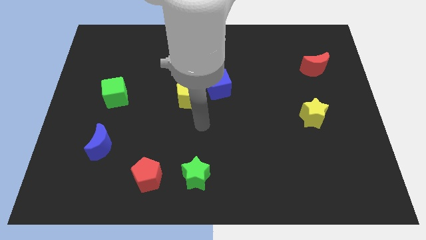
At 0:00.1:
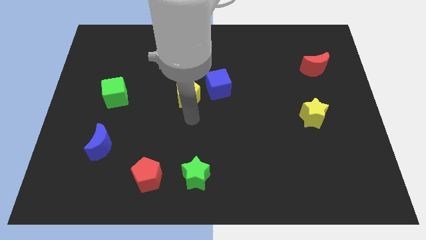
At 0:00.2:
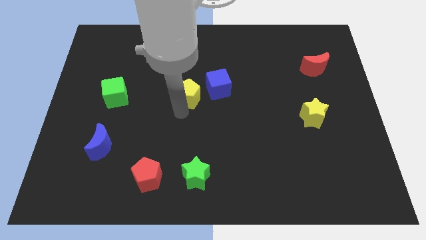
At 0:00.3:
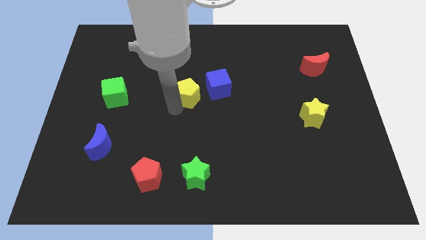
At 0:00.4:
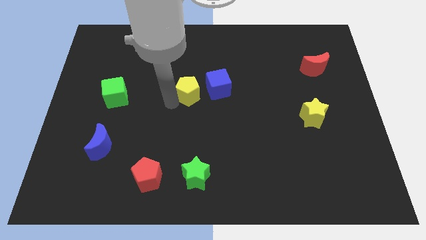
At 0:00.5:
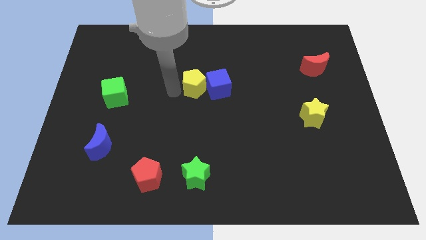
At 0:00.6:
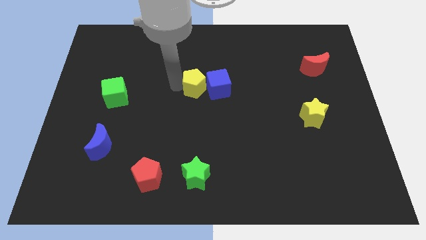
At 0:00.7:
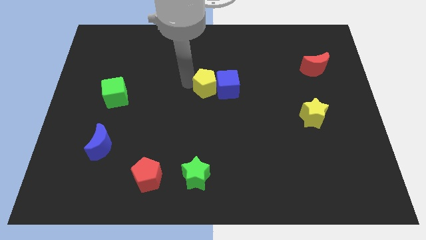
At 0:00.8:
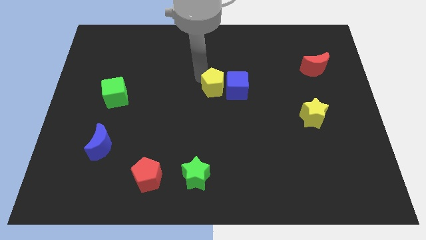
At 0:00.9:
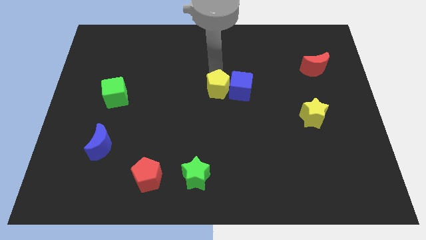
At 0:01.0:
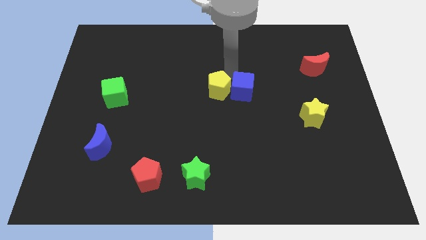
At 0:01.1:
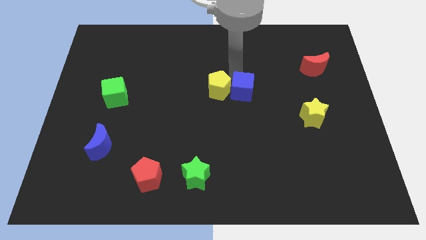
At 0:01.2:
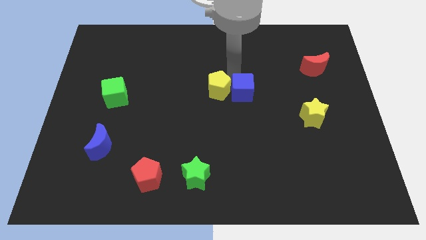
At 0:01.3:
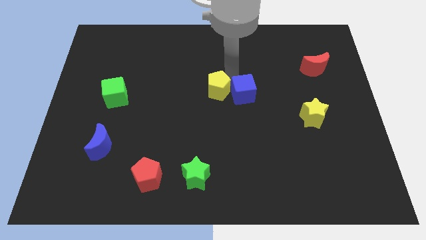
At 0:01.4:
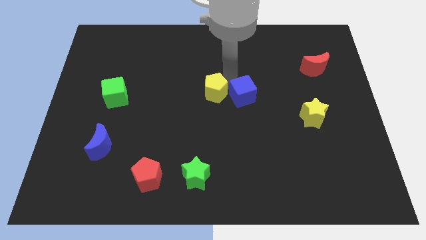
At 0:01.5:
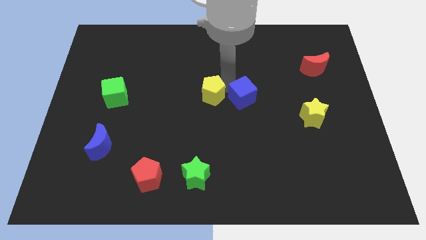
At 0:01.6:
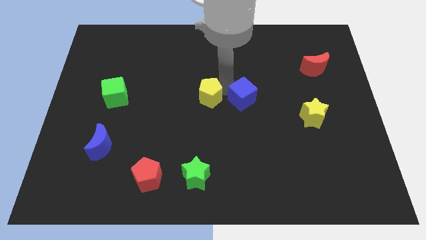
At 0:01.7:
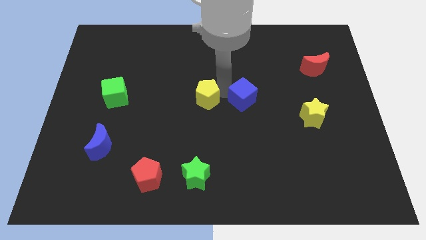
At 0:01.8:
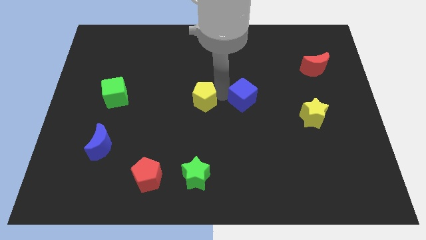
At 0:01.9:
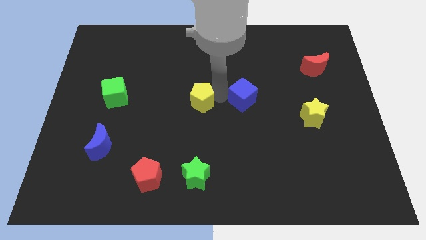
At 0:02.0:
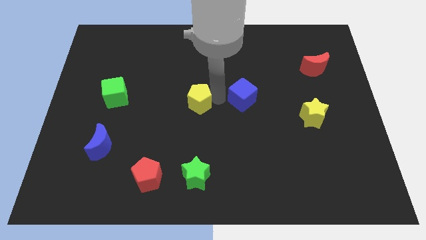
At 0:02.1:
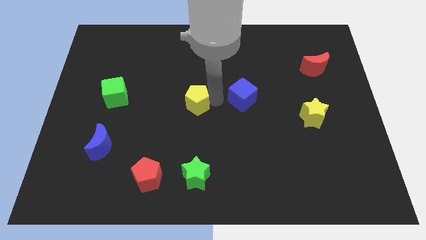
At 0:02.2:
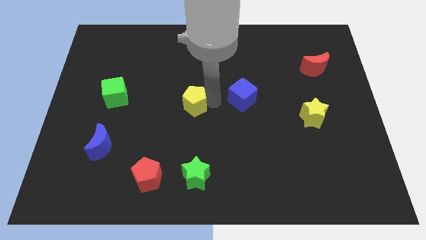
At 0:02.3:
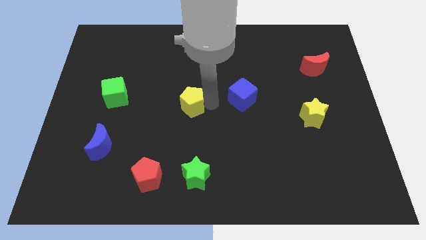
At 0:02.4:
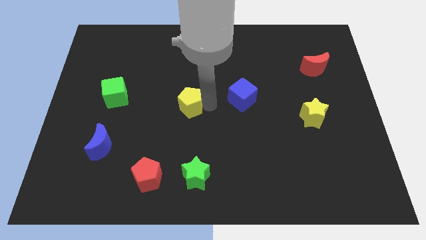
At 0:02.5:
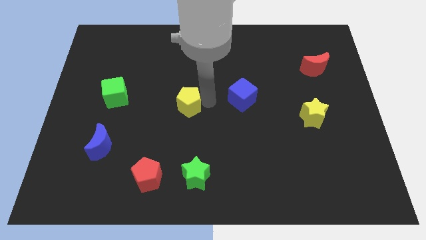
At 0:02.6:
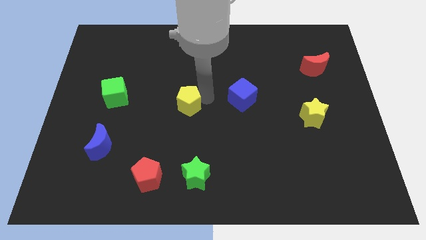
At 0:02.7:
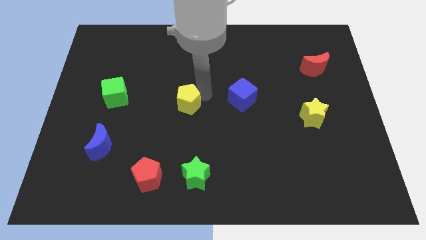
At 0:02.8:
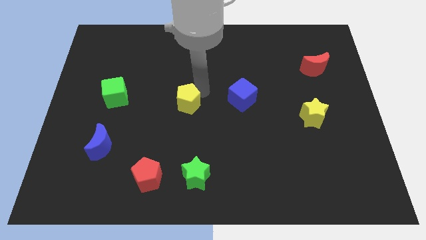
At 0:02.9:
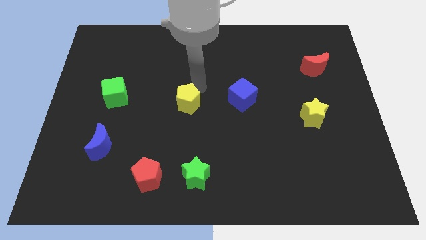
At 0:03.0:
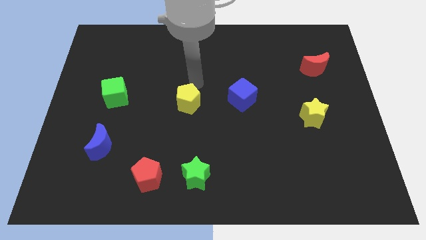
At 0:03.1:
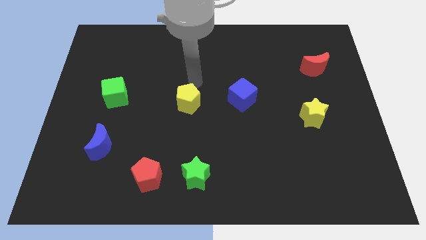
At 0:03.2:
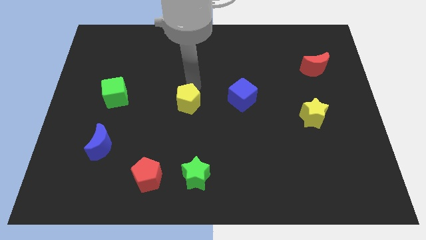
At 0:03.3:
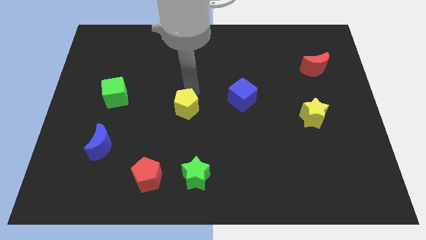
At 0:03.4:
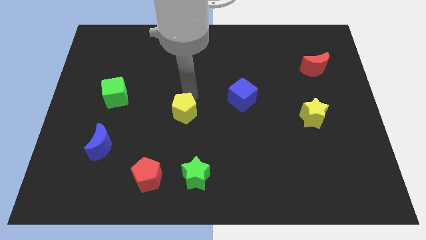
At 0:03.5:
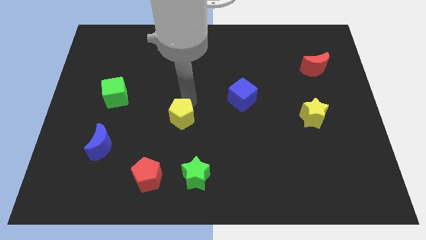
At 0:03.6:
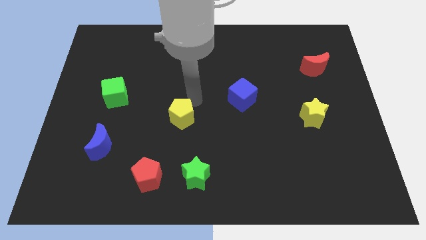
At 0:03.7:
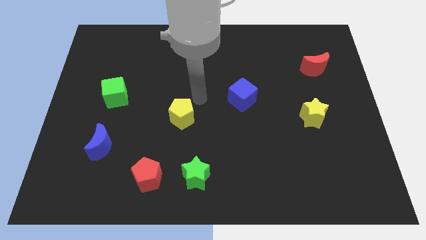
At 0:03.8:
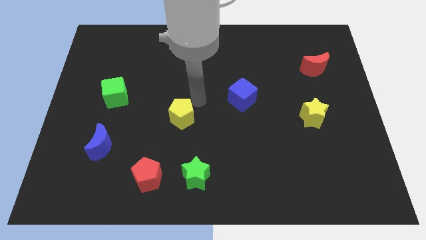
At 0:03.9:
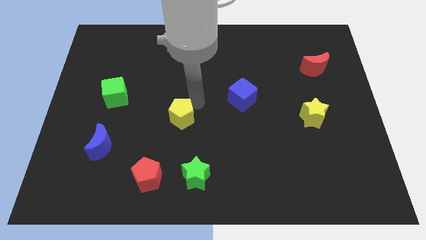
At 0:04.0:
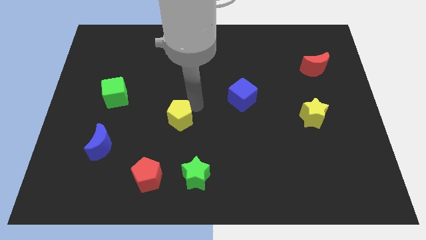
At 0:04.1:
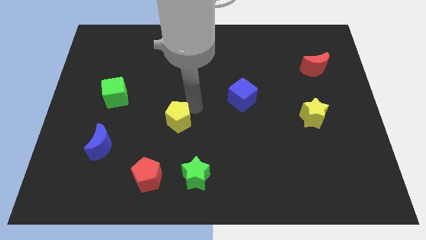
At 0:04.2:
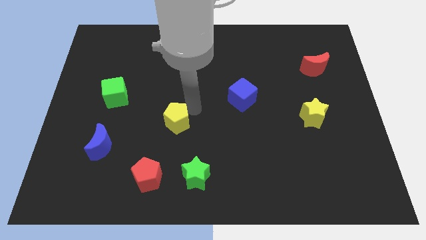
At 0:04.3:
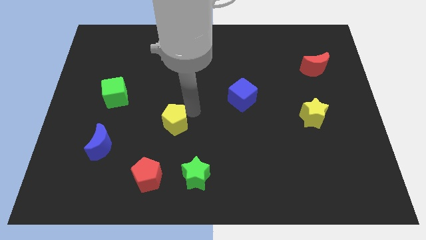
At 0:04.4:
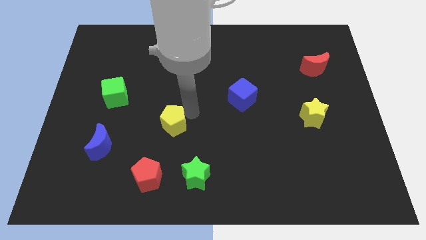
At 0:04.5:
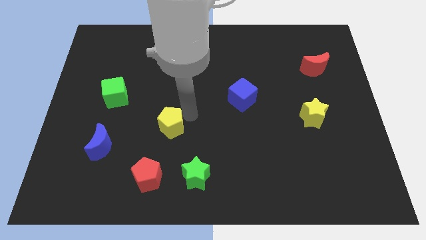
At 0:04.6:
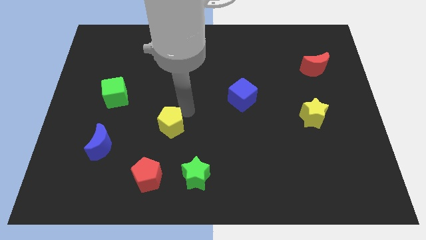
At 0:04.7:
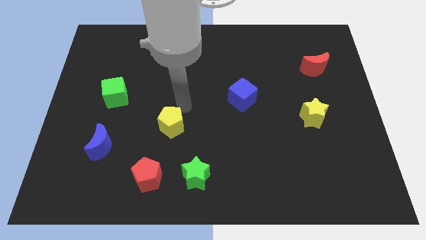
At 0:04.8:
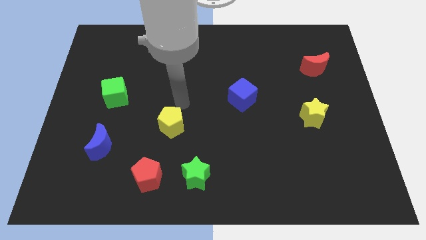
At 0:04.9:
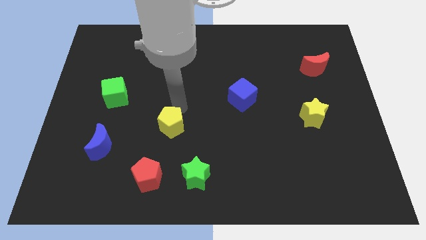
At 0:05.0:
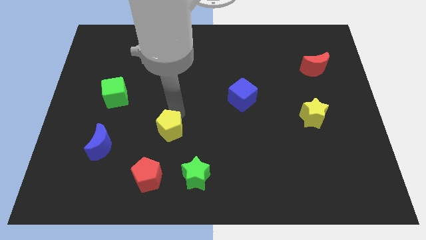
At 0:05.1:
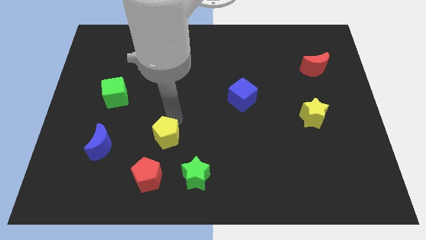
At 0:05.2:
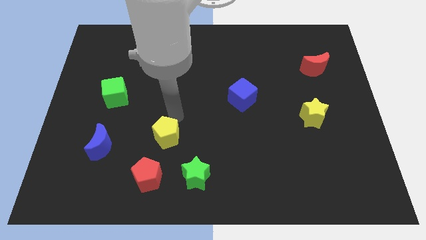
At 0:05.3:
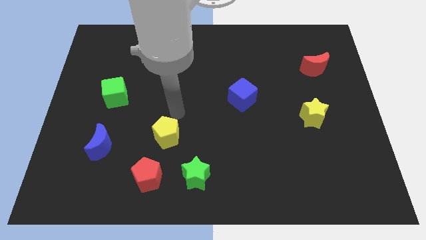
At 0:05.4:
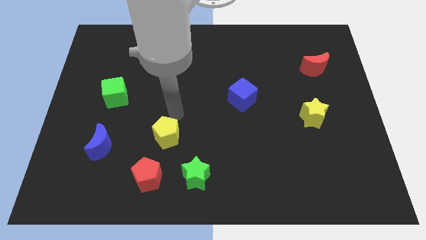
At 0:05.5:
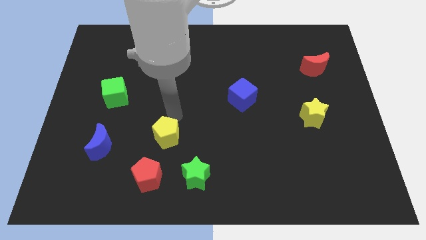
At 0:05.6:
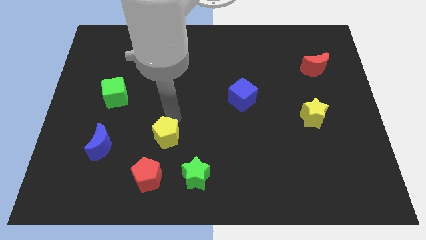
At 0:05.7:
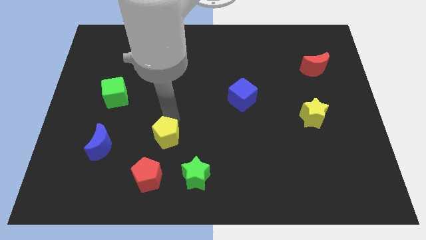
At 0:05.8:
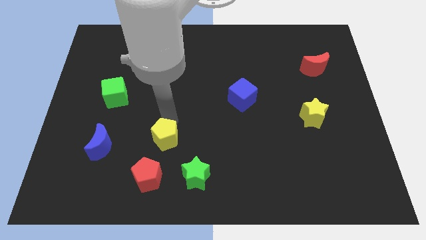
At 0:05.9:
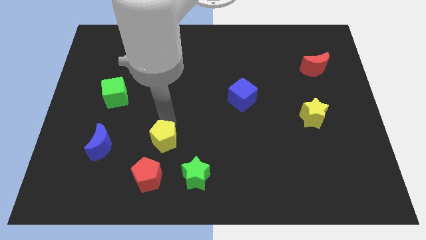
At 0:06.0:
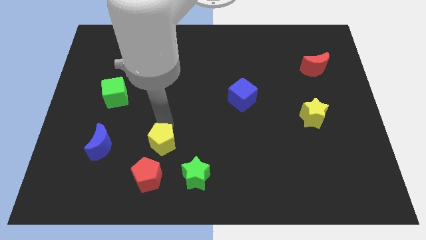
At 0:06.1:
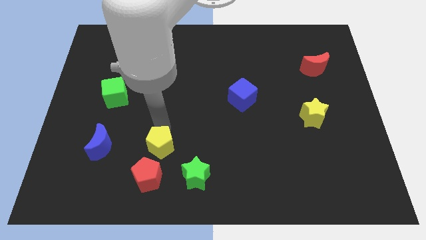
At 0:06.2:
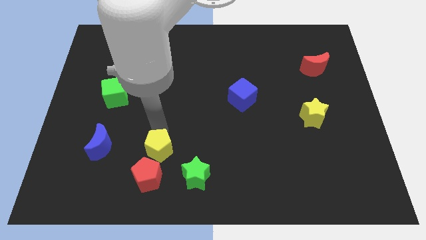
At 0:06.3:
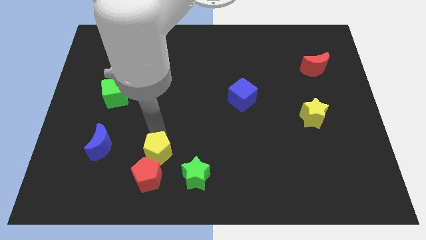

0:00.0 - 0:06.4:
push the yellow pentagon next to the red pentagon

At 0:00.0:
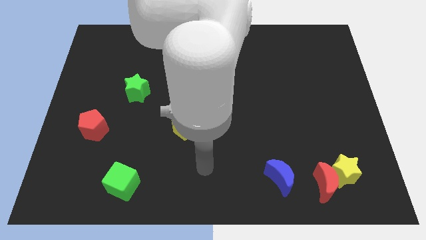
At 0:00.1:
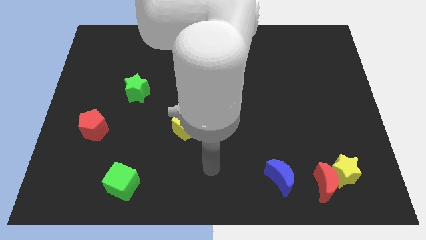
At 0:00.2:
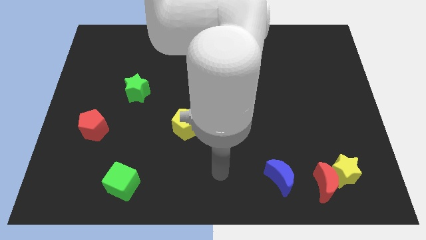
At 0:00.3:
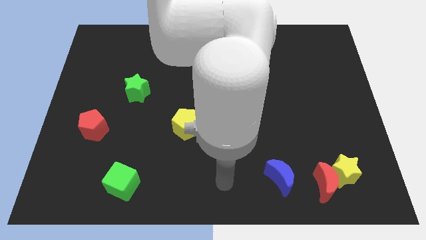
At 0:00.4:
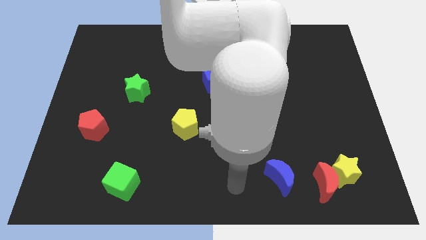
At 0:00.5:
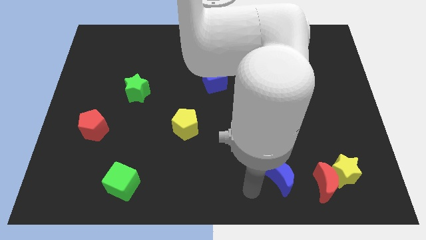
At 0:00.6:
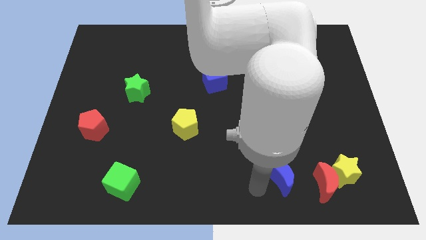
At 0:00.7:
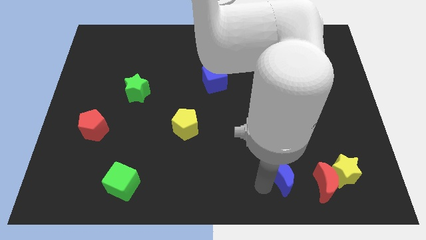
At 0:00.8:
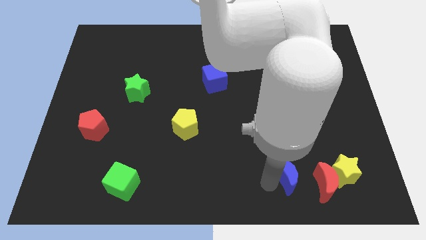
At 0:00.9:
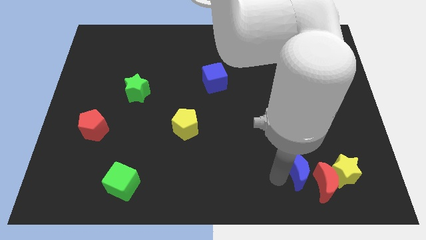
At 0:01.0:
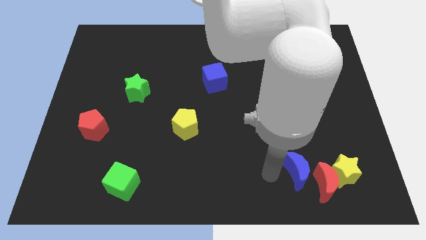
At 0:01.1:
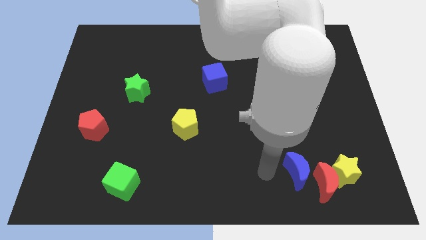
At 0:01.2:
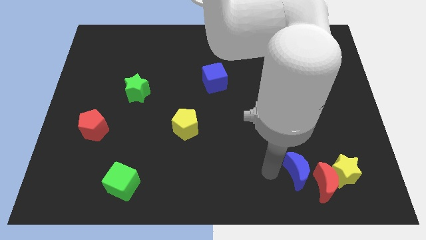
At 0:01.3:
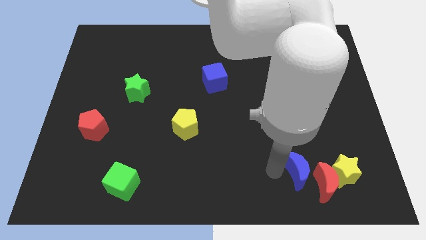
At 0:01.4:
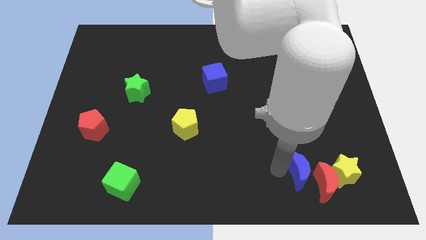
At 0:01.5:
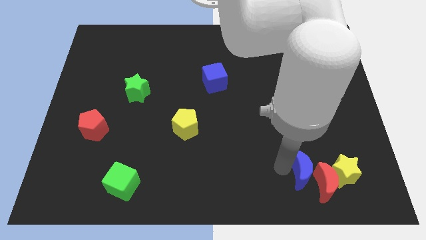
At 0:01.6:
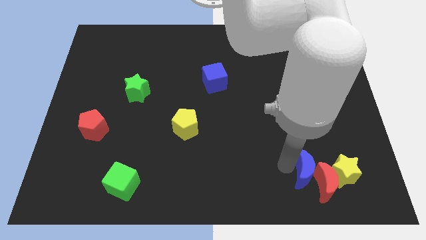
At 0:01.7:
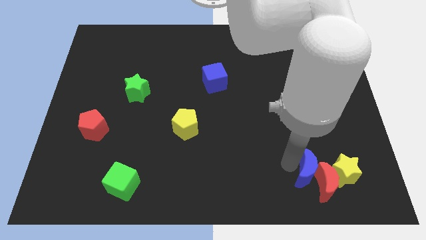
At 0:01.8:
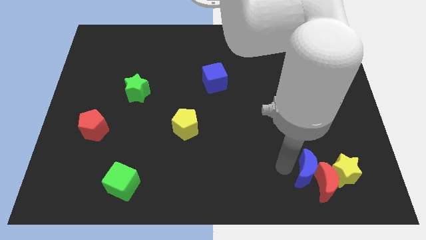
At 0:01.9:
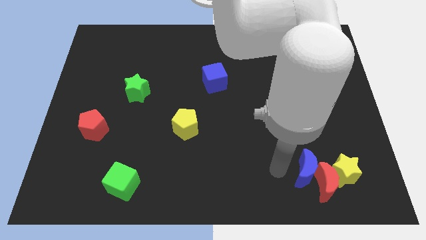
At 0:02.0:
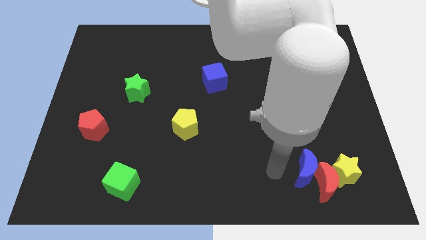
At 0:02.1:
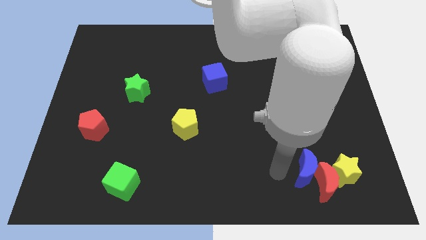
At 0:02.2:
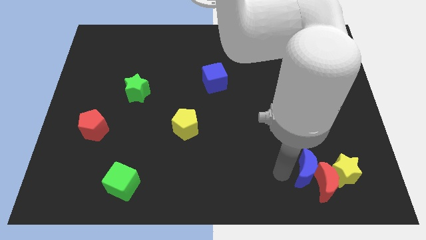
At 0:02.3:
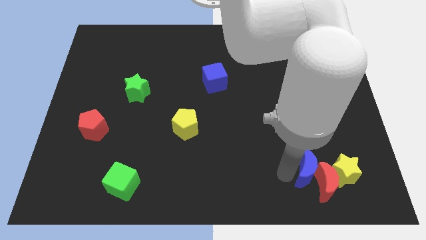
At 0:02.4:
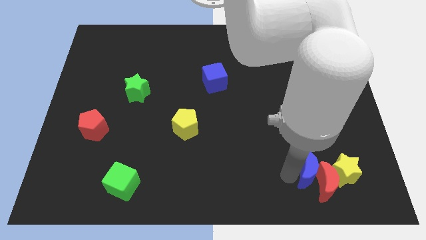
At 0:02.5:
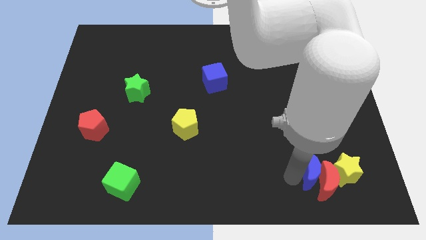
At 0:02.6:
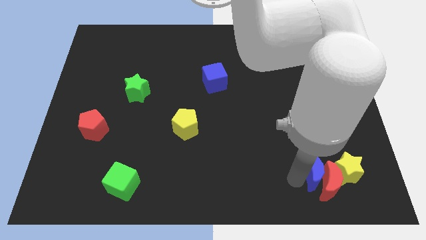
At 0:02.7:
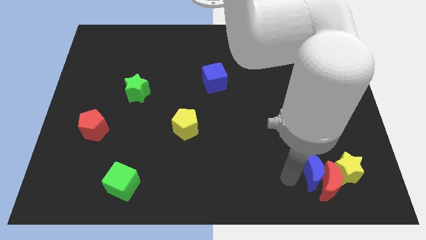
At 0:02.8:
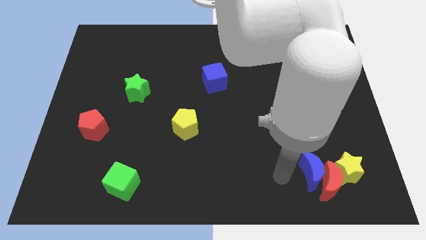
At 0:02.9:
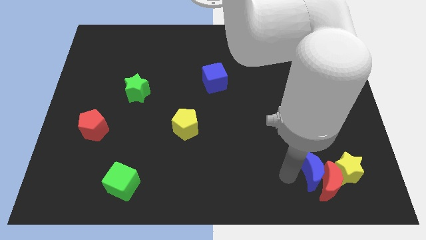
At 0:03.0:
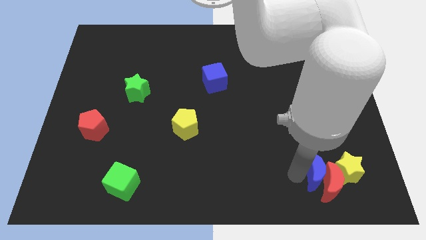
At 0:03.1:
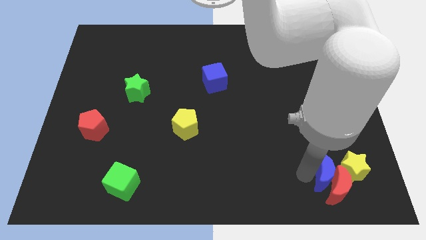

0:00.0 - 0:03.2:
slide the blue moon to the yellow star
